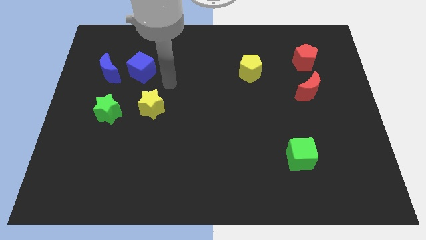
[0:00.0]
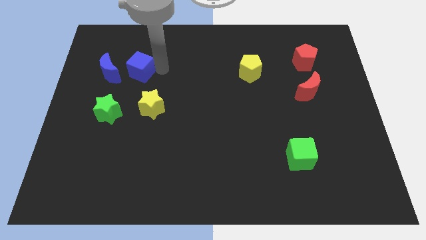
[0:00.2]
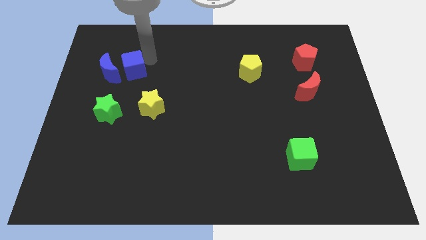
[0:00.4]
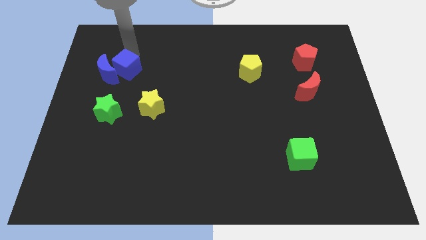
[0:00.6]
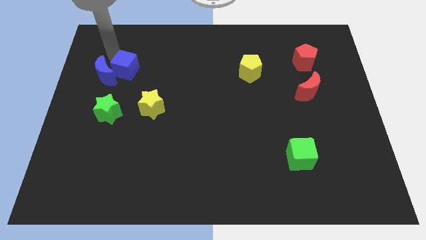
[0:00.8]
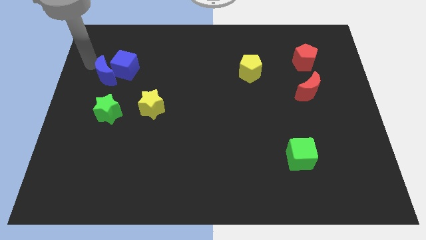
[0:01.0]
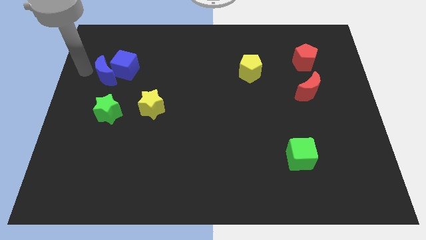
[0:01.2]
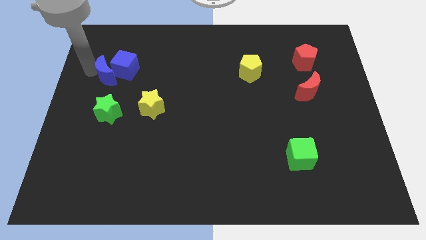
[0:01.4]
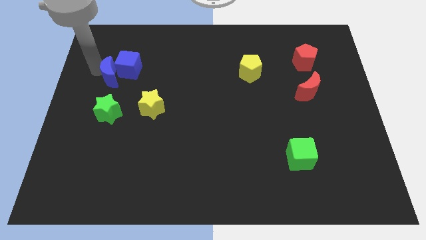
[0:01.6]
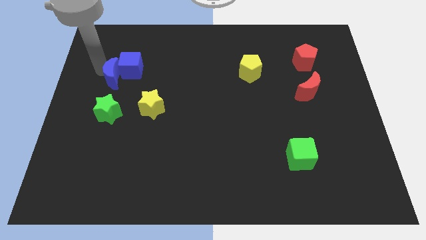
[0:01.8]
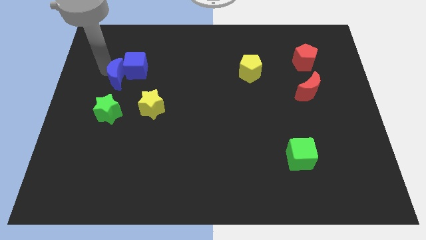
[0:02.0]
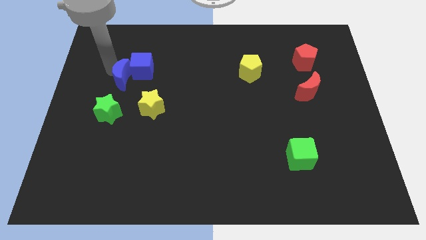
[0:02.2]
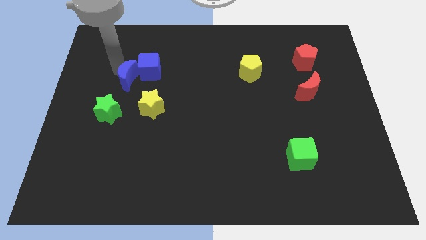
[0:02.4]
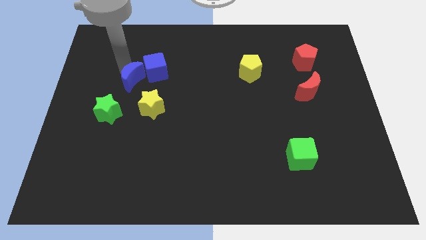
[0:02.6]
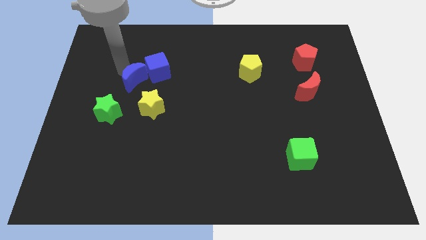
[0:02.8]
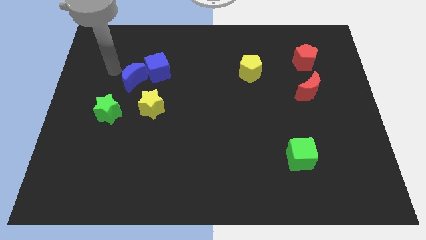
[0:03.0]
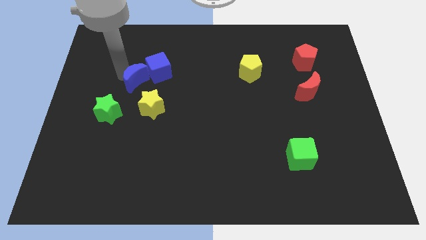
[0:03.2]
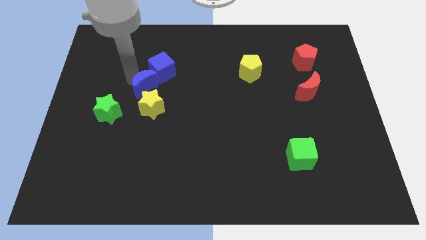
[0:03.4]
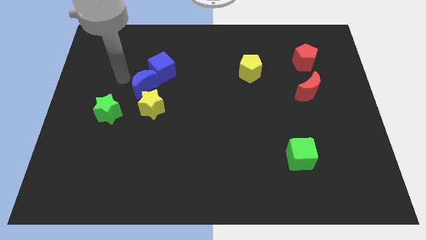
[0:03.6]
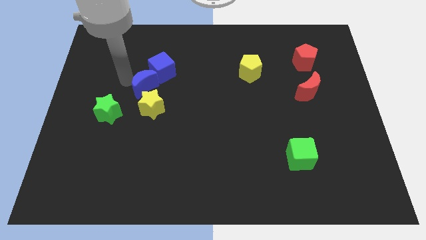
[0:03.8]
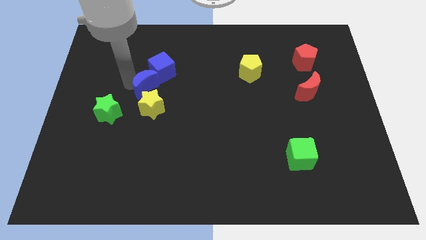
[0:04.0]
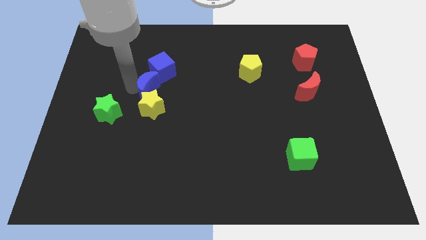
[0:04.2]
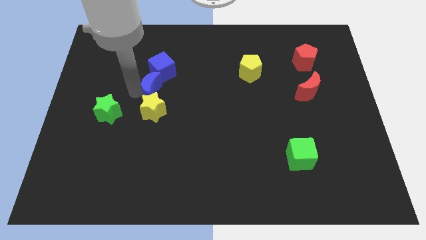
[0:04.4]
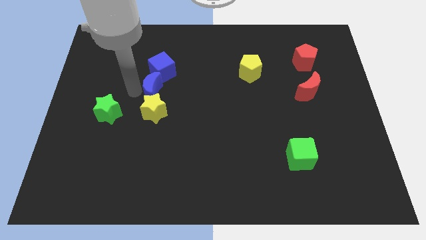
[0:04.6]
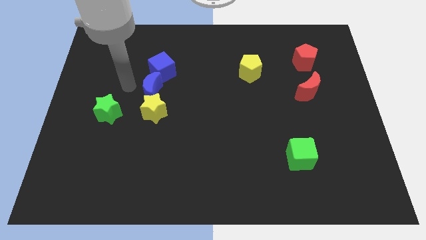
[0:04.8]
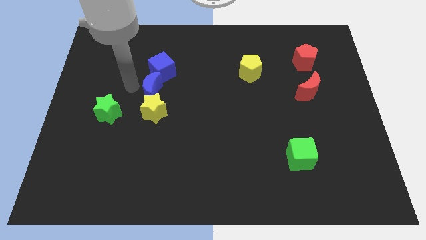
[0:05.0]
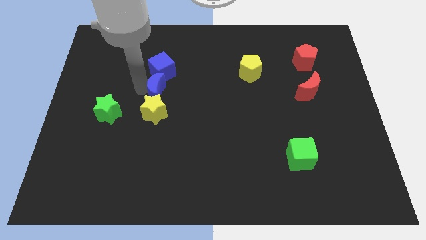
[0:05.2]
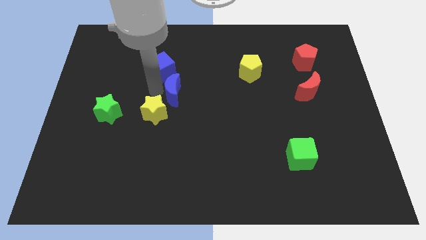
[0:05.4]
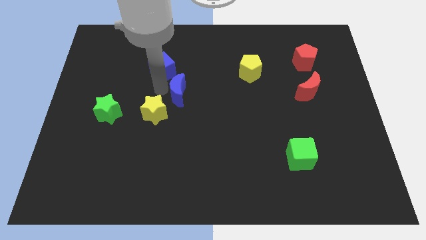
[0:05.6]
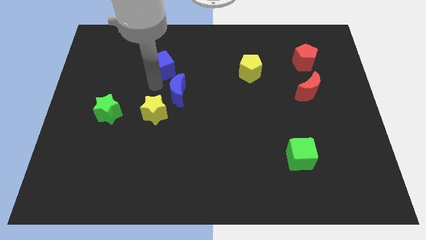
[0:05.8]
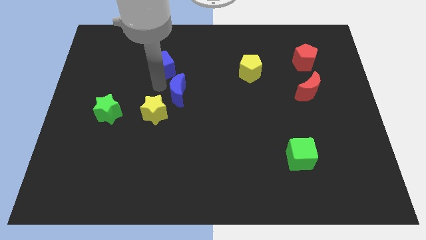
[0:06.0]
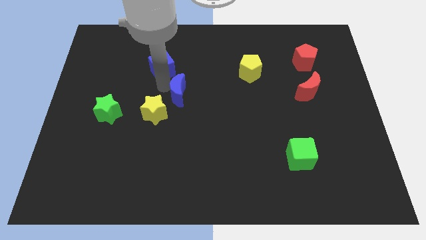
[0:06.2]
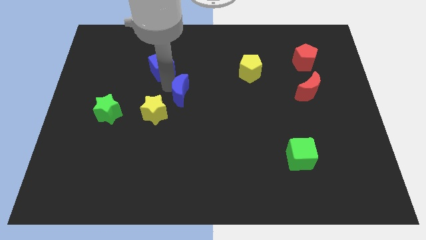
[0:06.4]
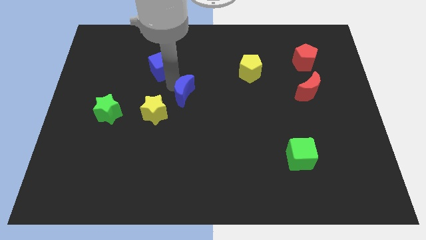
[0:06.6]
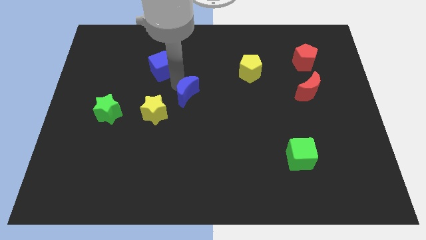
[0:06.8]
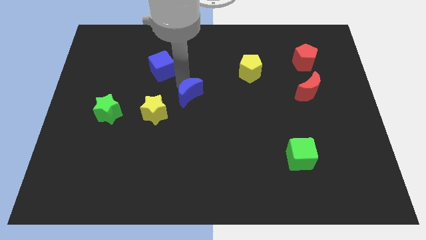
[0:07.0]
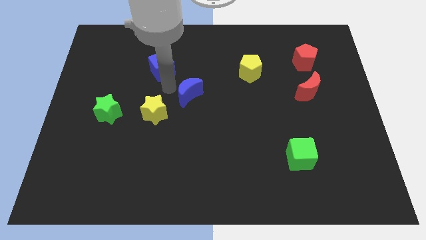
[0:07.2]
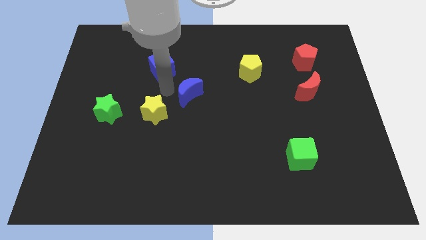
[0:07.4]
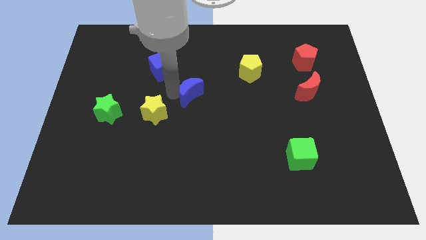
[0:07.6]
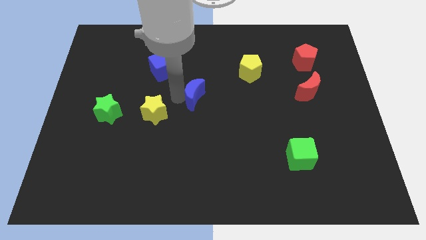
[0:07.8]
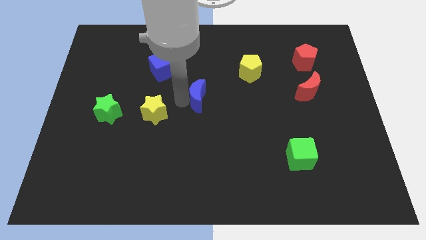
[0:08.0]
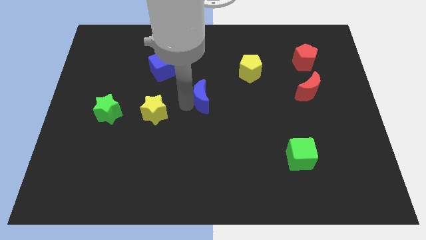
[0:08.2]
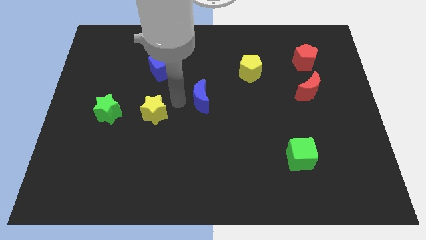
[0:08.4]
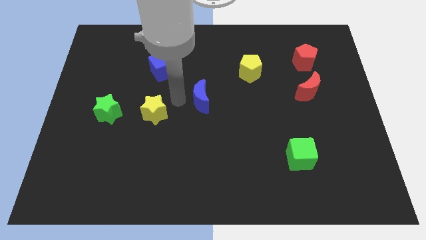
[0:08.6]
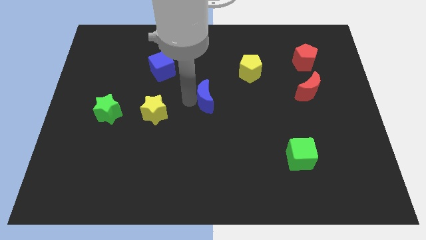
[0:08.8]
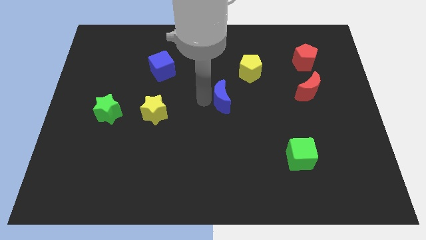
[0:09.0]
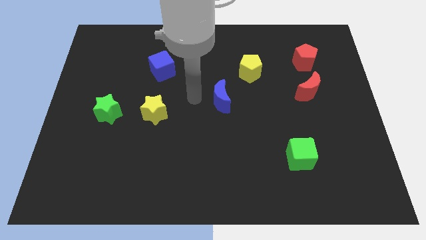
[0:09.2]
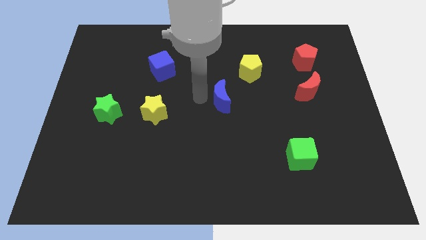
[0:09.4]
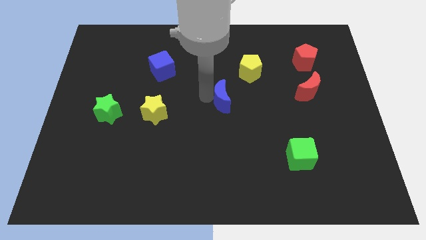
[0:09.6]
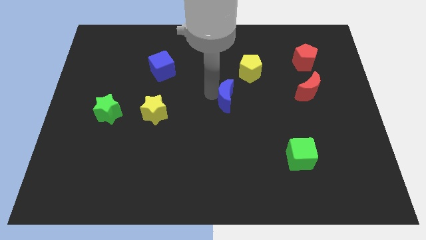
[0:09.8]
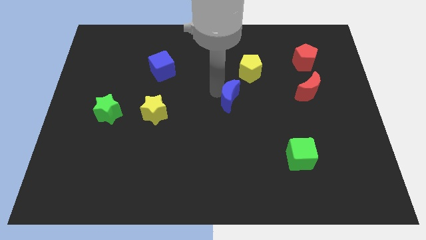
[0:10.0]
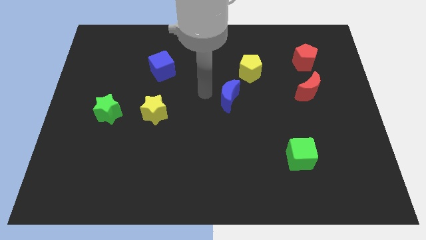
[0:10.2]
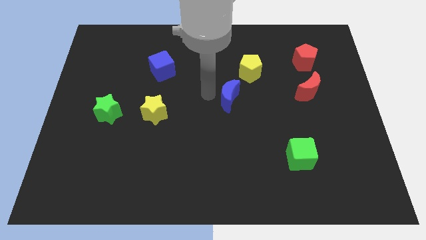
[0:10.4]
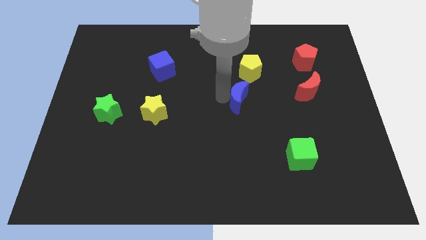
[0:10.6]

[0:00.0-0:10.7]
push the blue moon to the bottom of the yellow pentagon
